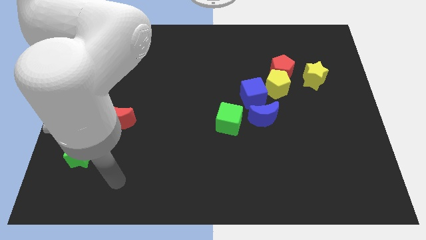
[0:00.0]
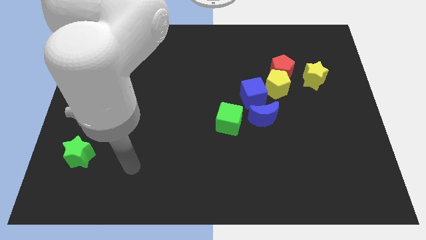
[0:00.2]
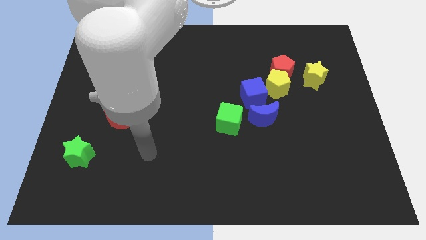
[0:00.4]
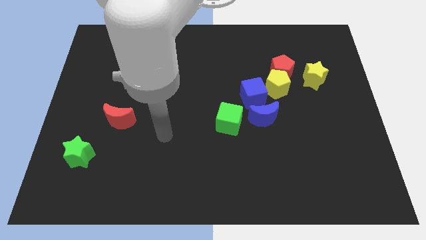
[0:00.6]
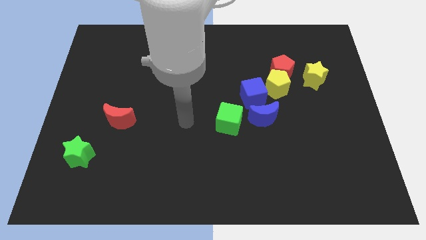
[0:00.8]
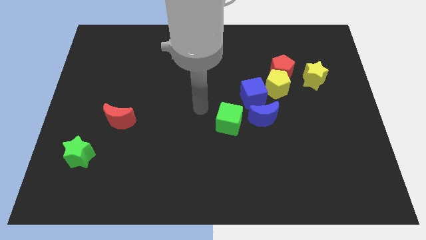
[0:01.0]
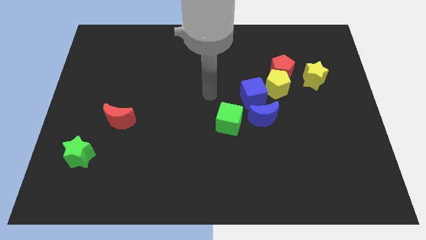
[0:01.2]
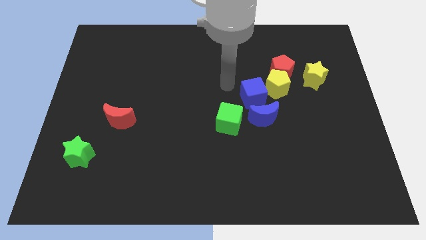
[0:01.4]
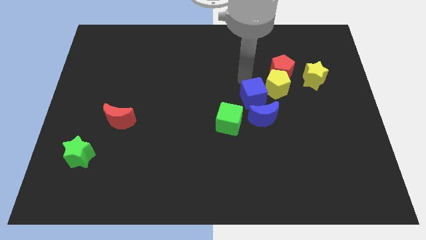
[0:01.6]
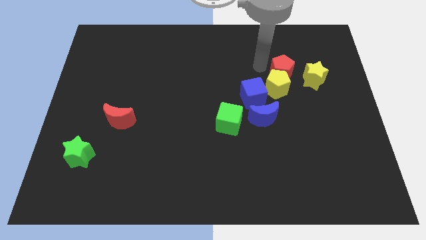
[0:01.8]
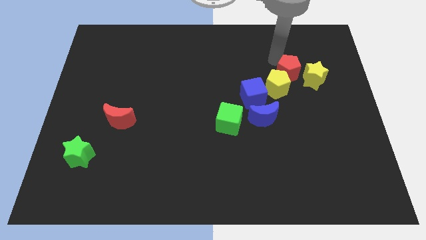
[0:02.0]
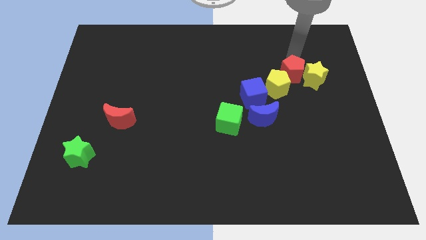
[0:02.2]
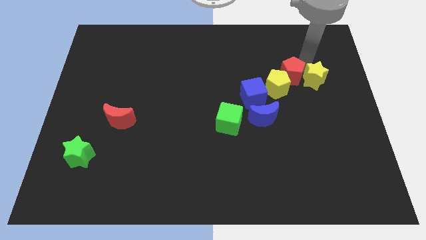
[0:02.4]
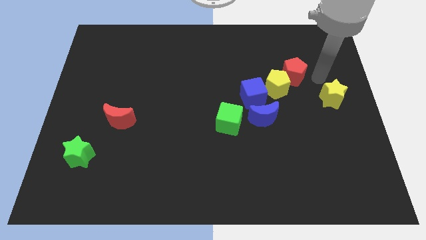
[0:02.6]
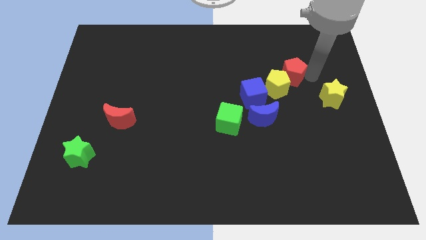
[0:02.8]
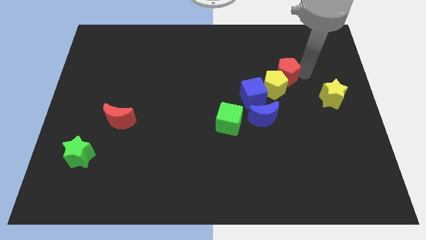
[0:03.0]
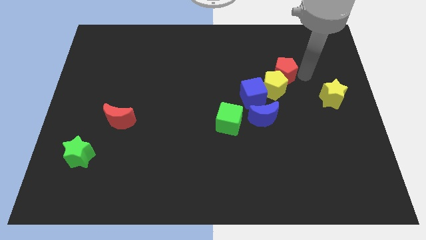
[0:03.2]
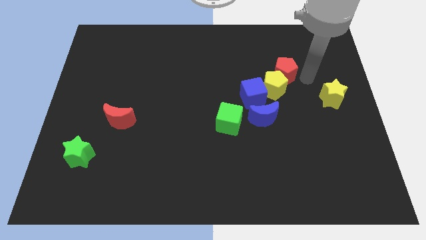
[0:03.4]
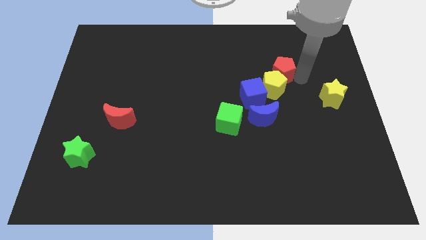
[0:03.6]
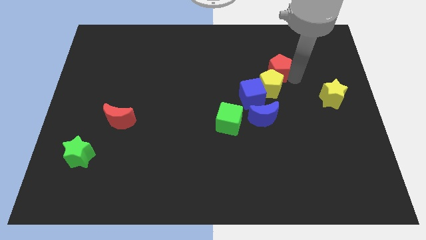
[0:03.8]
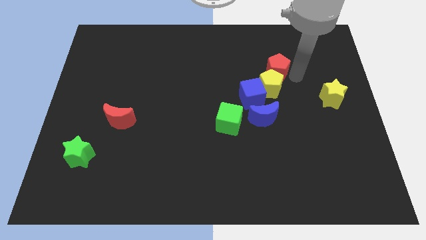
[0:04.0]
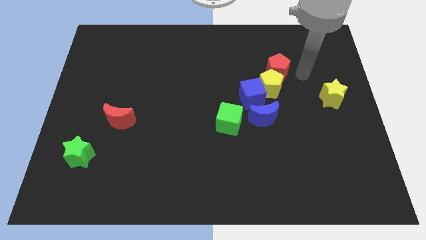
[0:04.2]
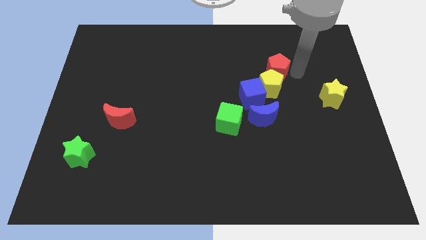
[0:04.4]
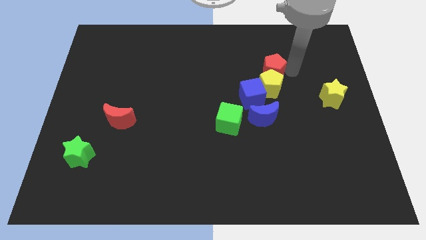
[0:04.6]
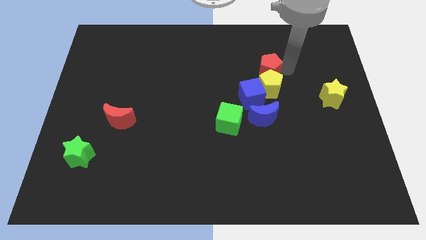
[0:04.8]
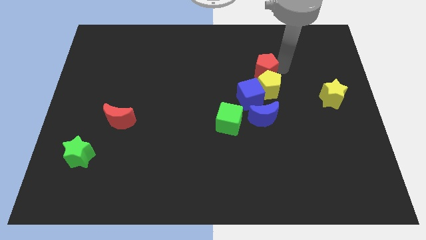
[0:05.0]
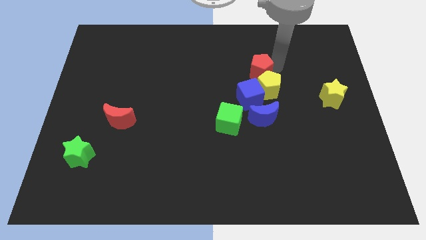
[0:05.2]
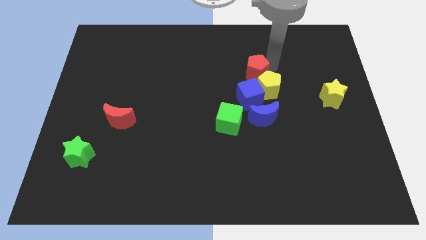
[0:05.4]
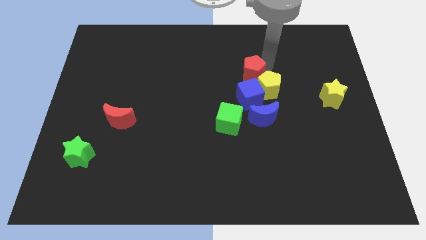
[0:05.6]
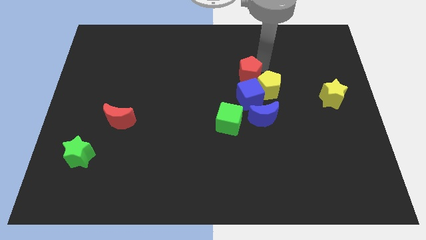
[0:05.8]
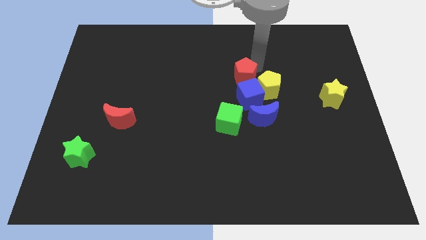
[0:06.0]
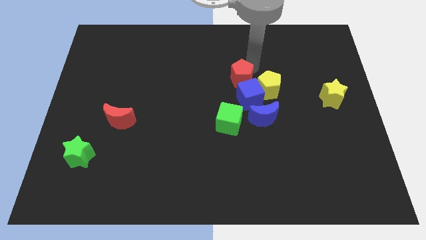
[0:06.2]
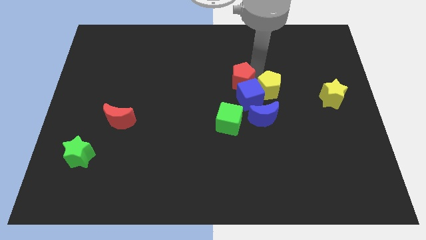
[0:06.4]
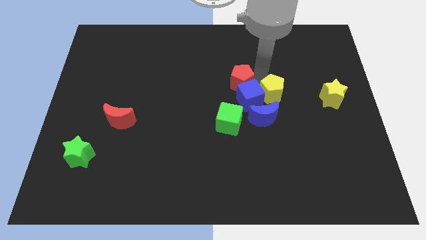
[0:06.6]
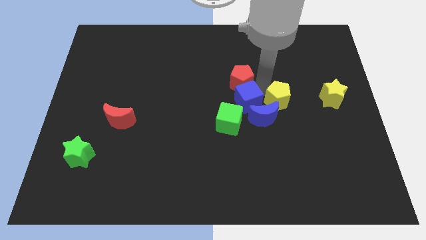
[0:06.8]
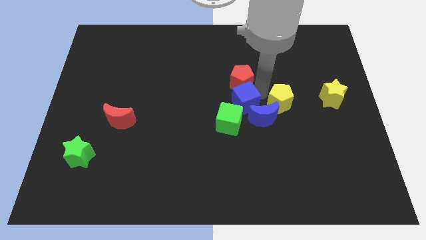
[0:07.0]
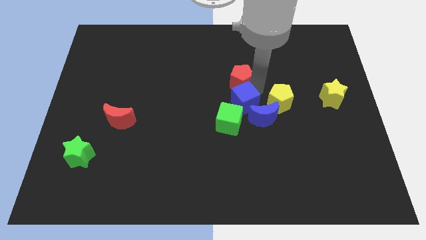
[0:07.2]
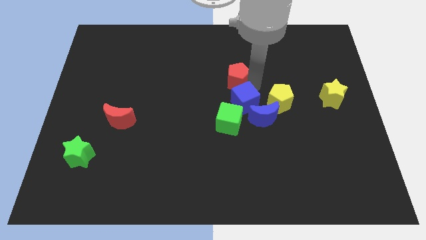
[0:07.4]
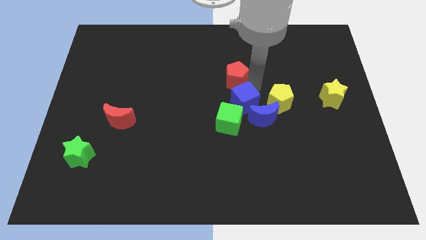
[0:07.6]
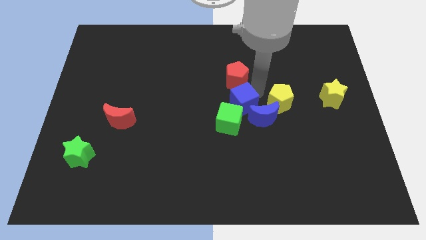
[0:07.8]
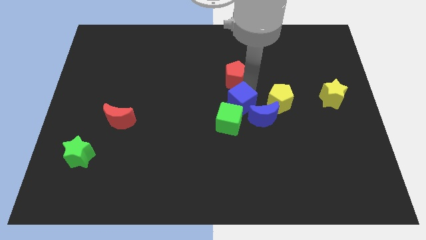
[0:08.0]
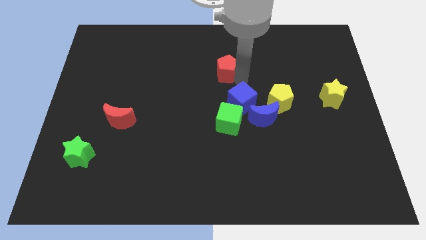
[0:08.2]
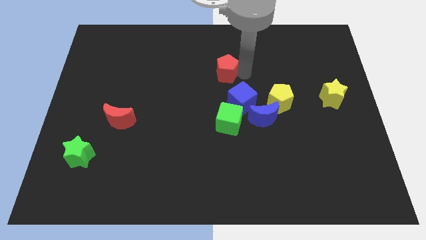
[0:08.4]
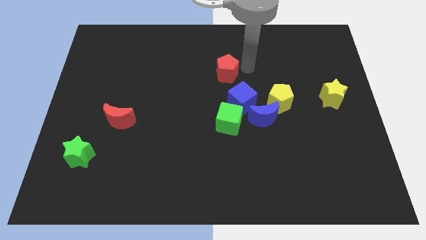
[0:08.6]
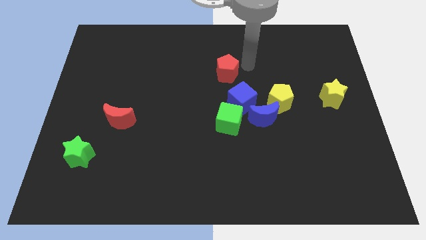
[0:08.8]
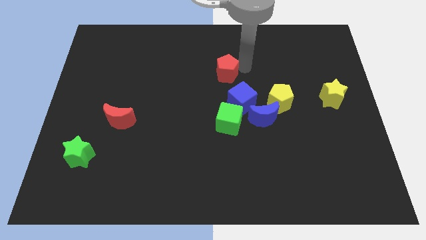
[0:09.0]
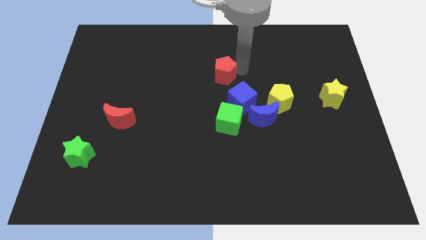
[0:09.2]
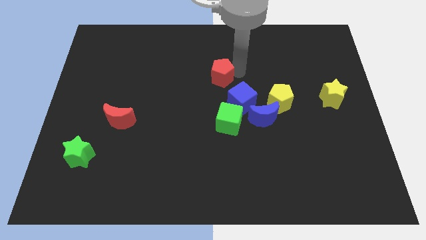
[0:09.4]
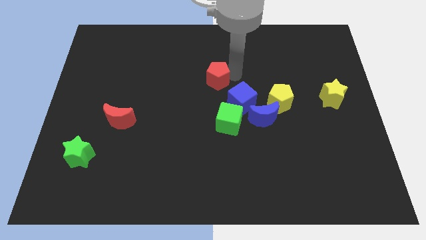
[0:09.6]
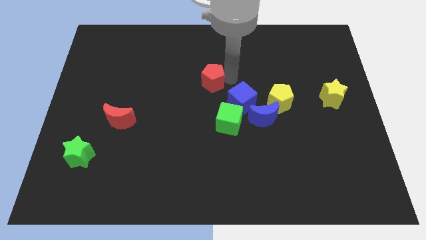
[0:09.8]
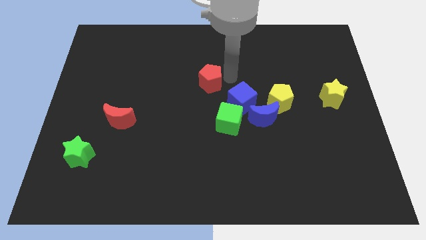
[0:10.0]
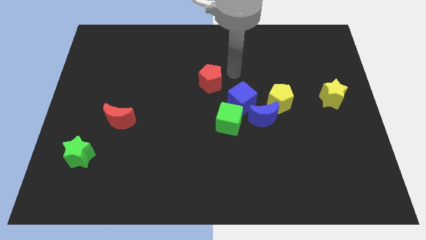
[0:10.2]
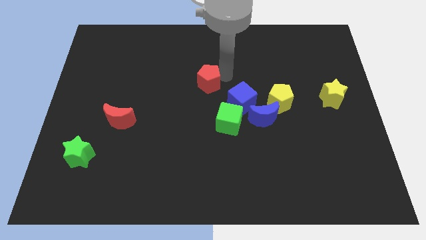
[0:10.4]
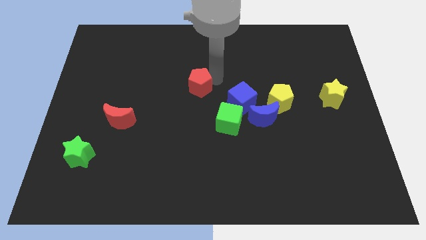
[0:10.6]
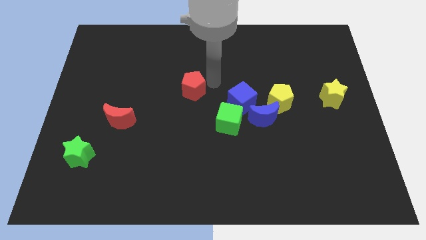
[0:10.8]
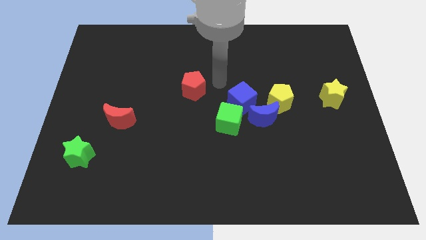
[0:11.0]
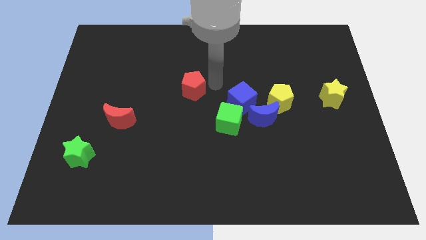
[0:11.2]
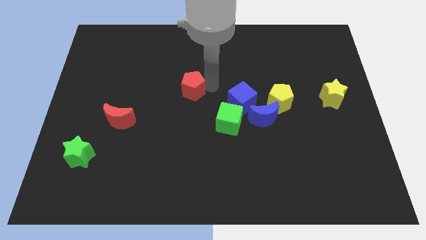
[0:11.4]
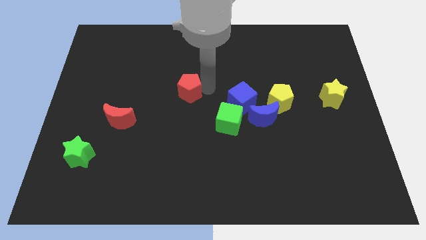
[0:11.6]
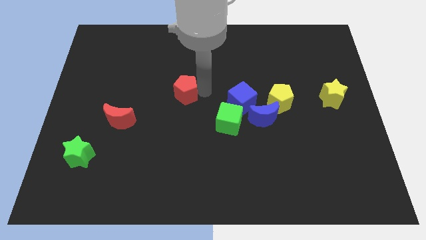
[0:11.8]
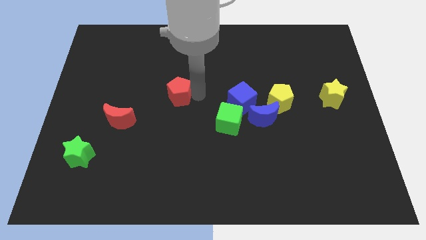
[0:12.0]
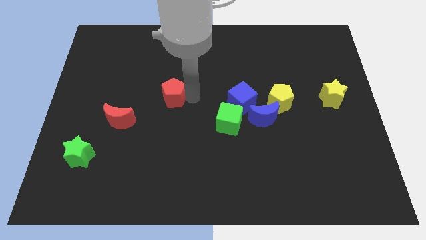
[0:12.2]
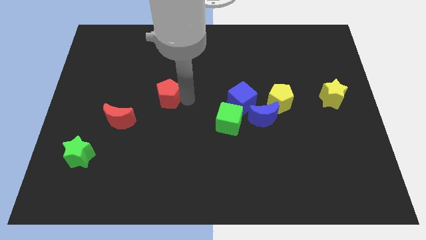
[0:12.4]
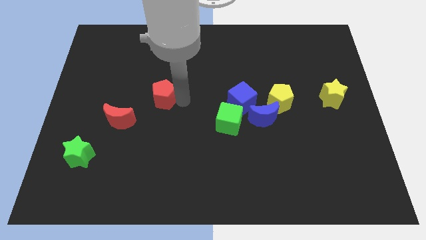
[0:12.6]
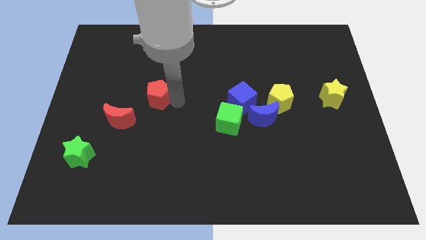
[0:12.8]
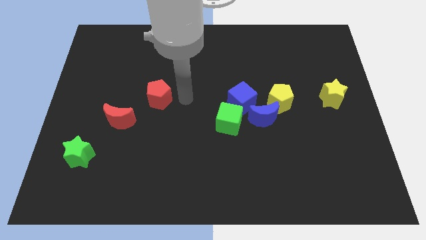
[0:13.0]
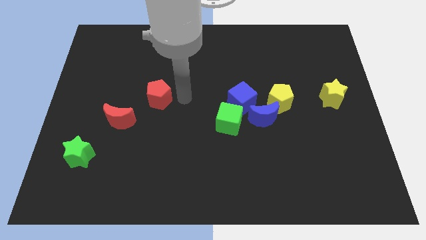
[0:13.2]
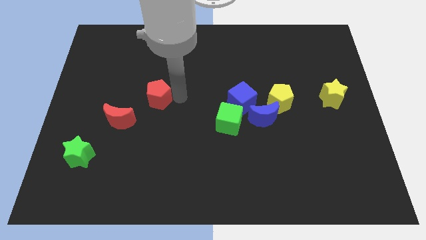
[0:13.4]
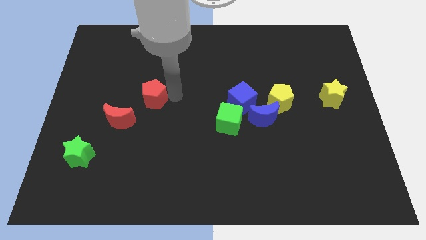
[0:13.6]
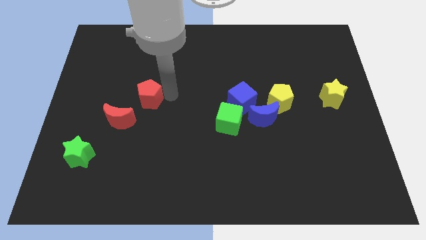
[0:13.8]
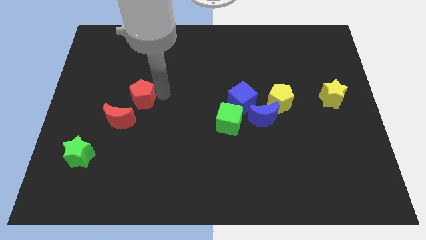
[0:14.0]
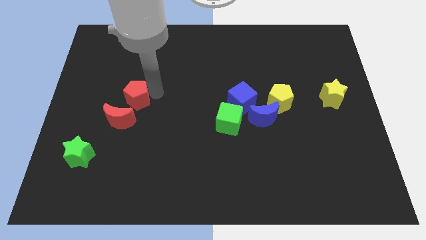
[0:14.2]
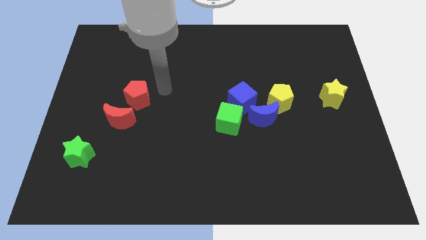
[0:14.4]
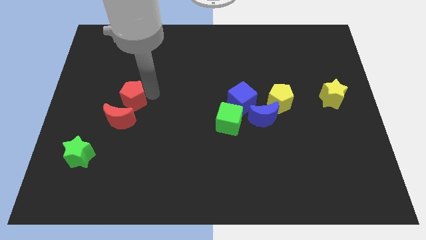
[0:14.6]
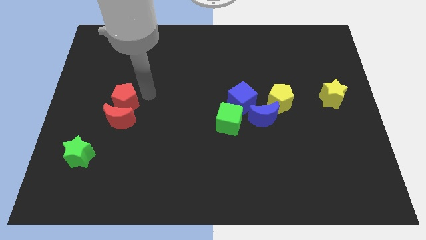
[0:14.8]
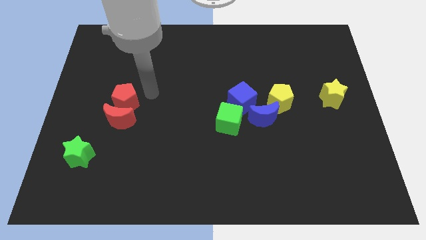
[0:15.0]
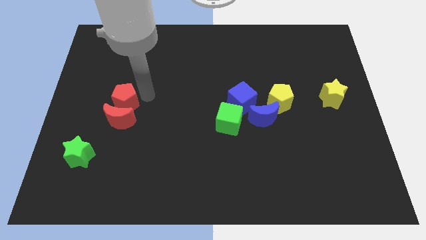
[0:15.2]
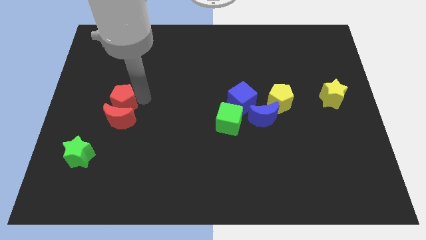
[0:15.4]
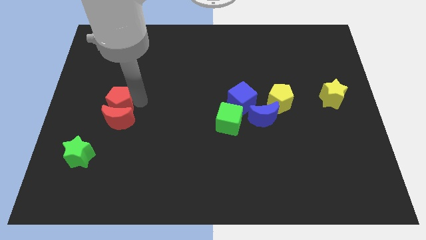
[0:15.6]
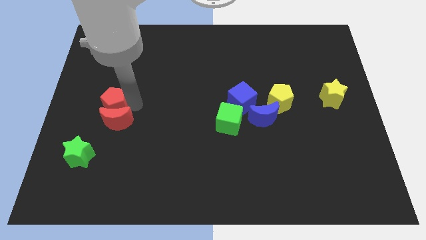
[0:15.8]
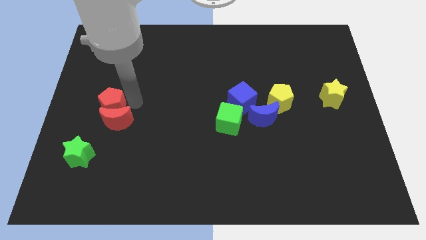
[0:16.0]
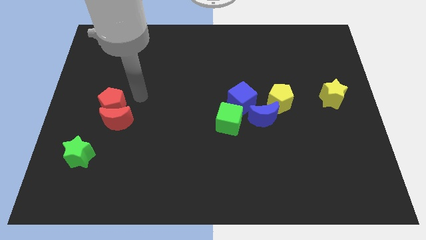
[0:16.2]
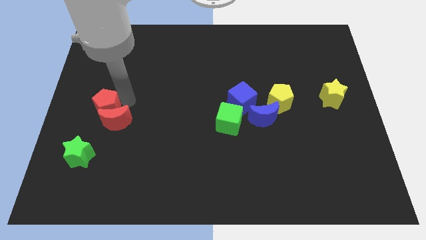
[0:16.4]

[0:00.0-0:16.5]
push the red pentagon above the green star
